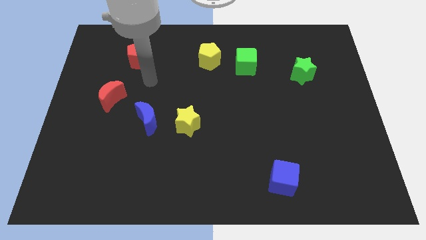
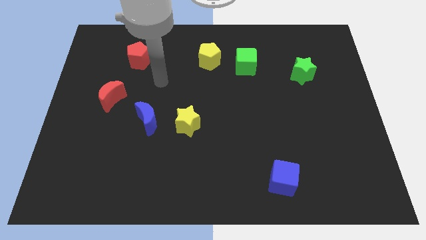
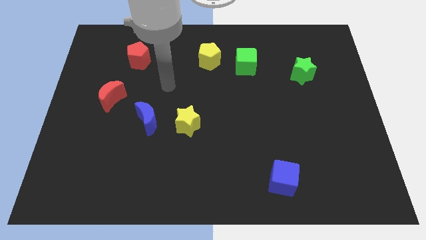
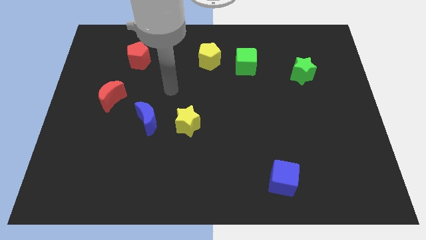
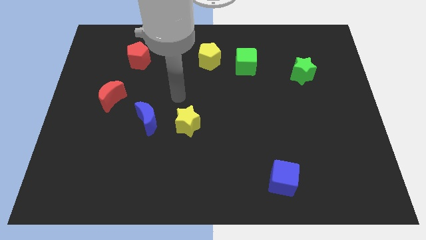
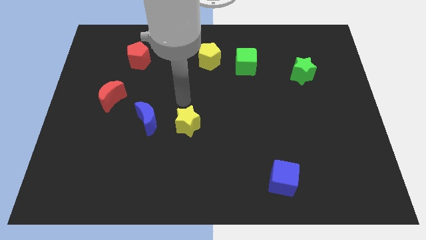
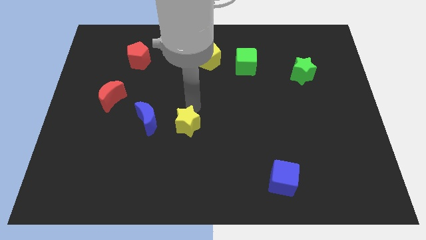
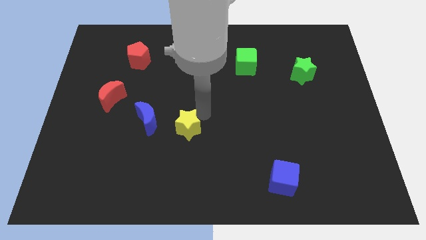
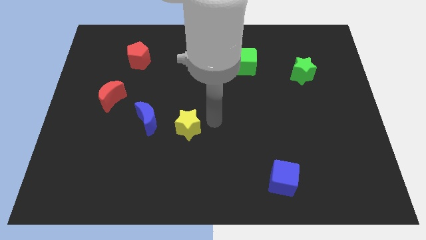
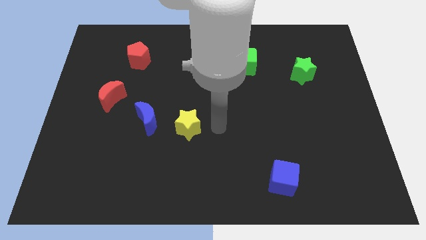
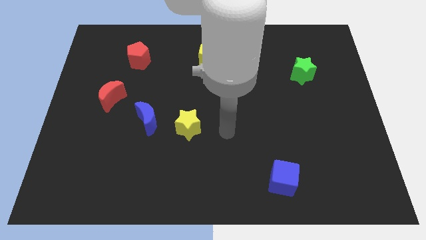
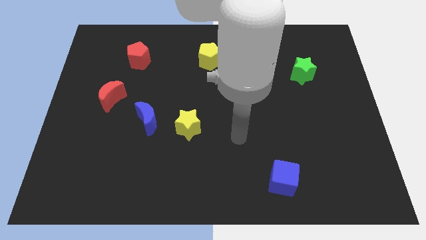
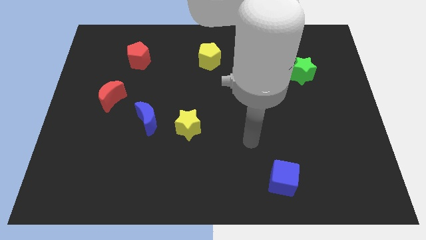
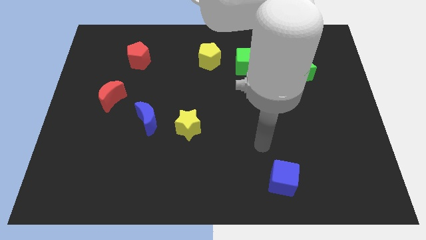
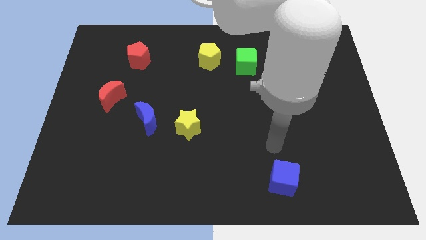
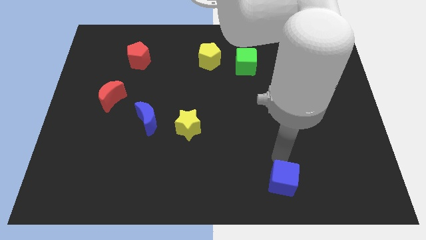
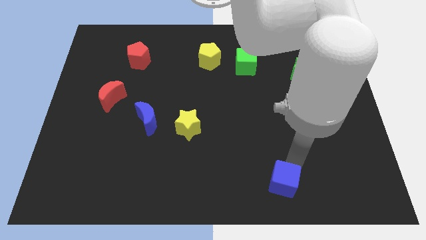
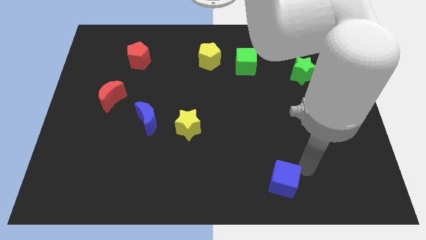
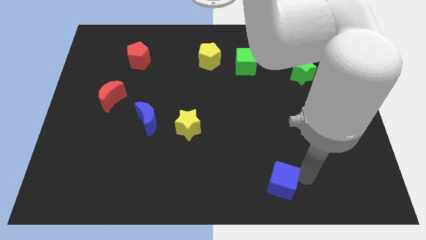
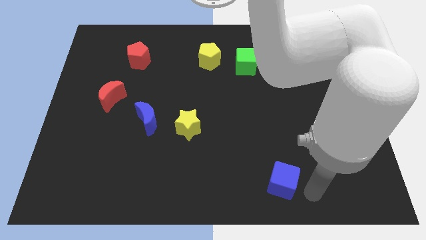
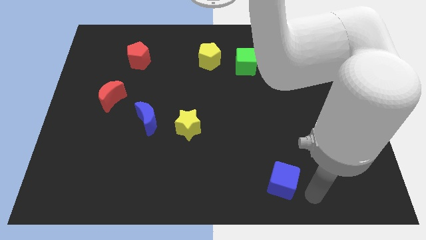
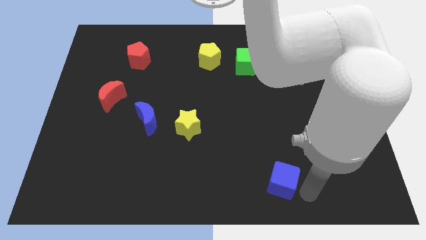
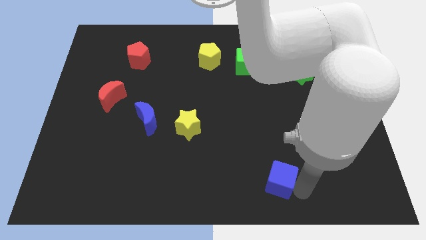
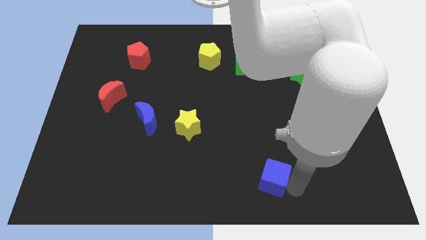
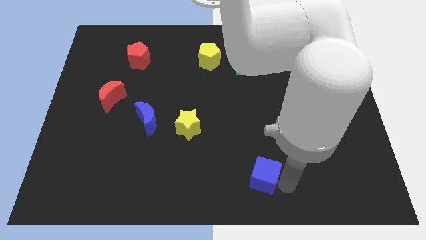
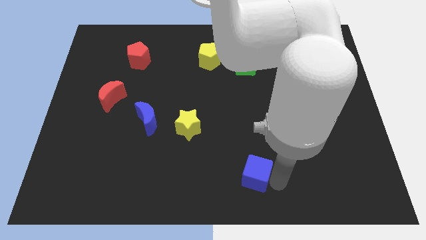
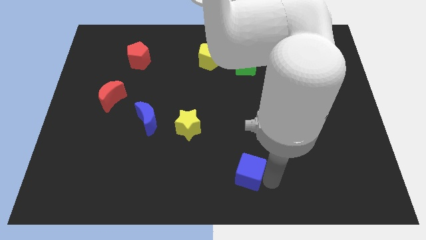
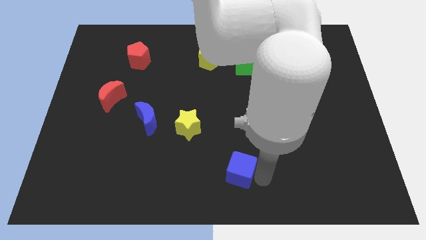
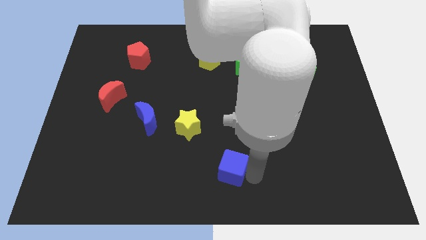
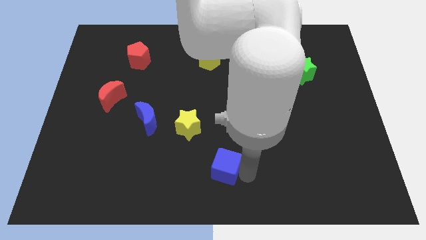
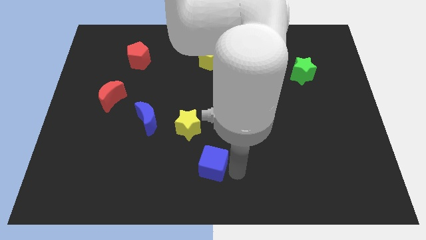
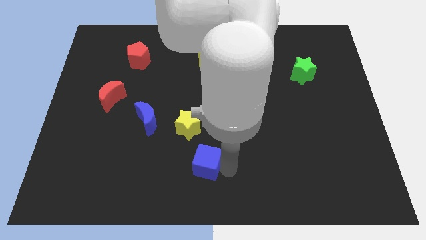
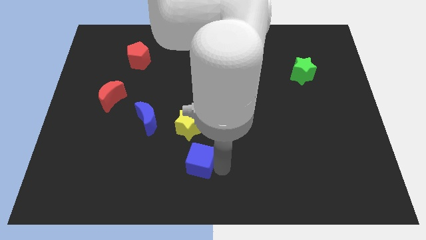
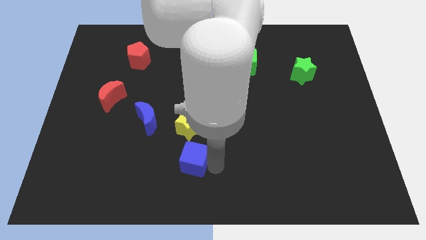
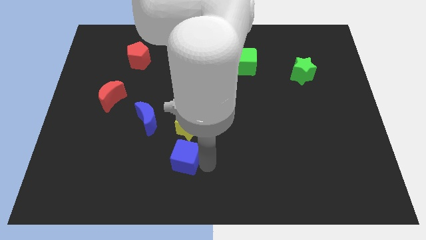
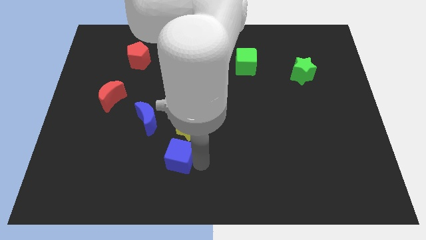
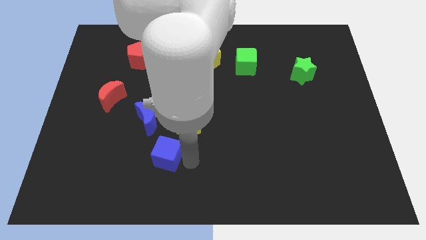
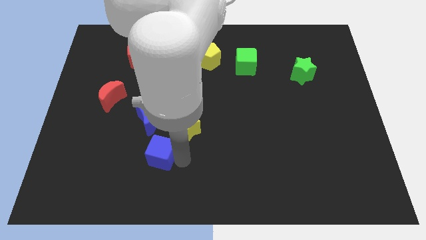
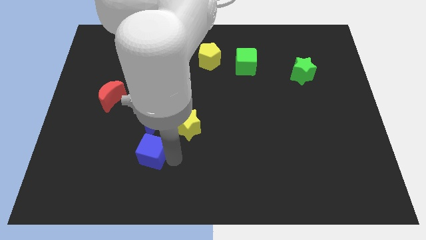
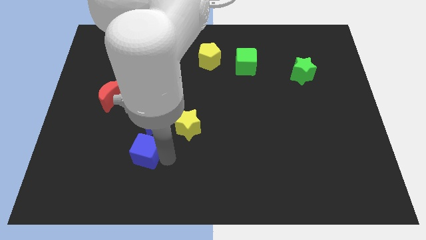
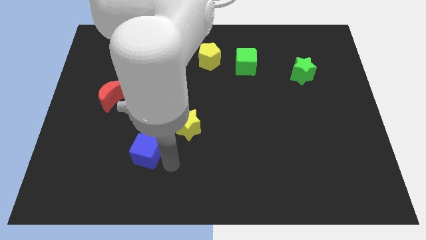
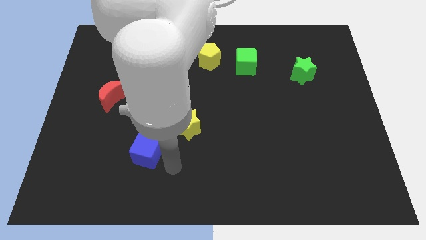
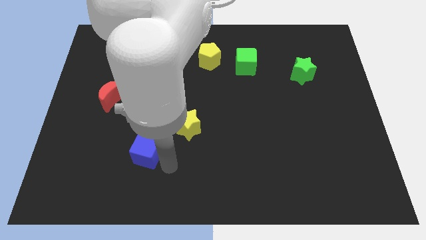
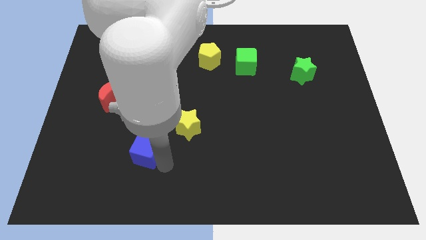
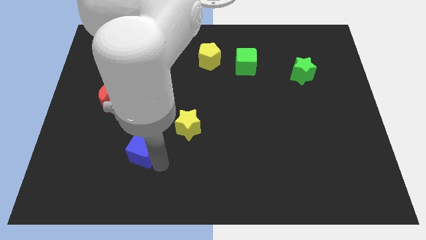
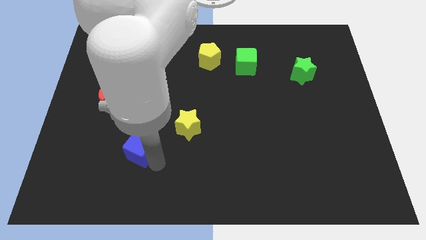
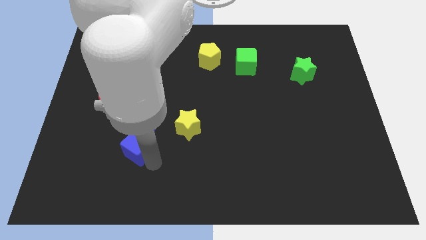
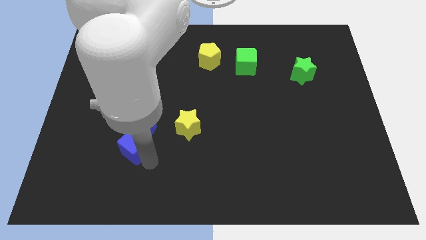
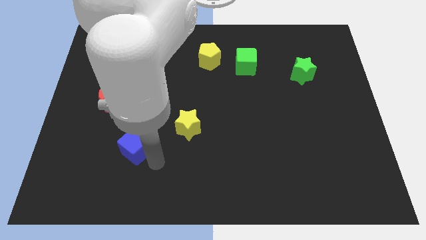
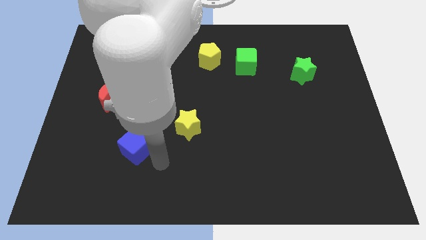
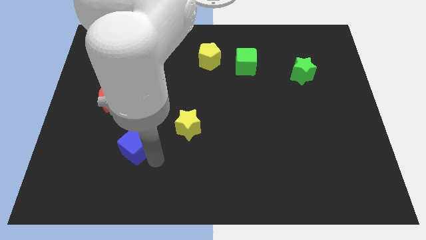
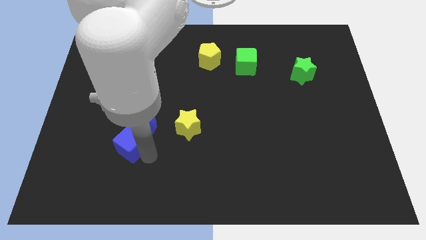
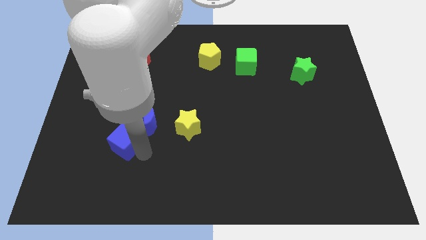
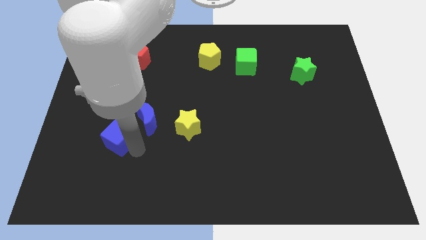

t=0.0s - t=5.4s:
put the blue cube below the red moon
